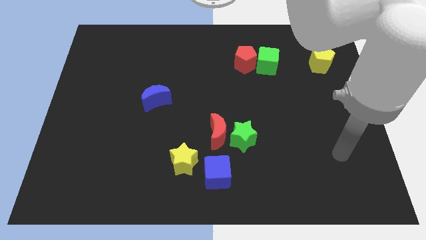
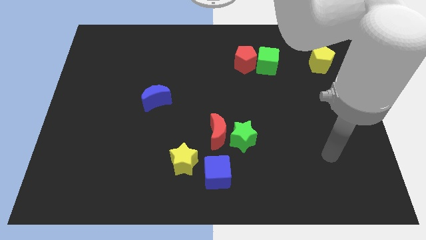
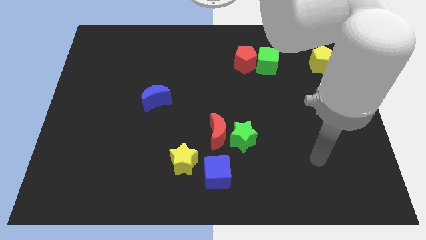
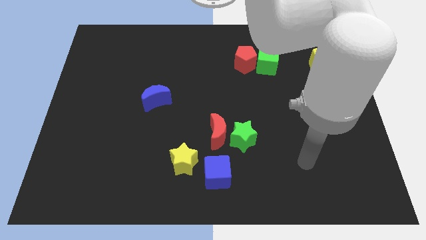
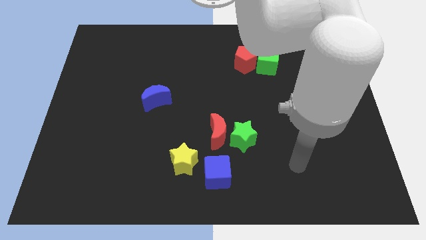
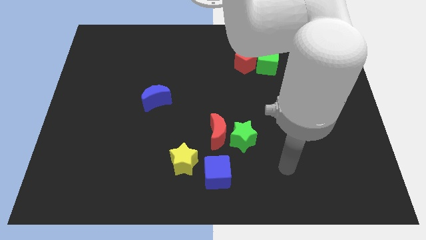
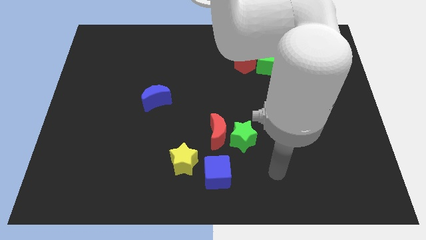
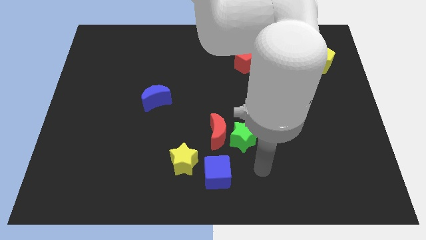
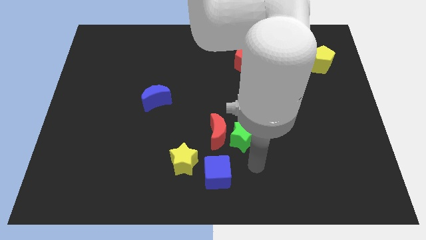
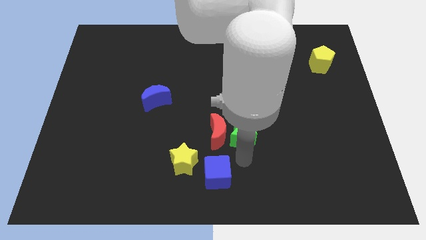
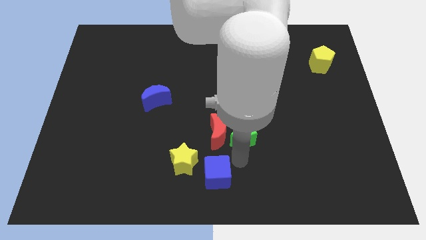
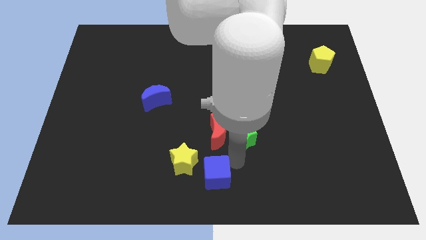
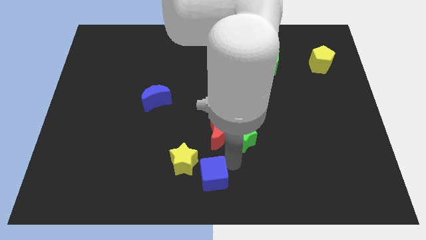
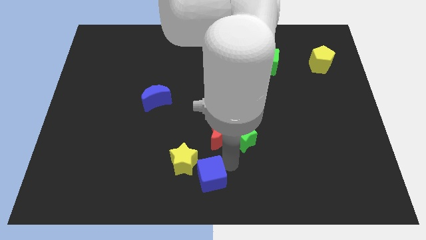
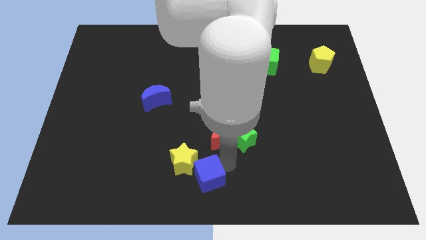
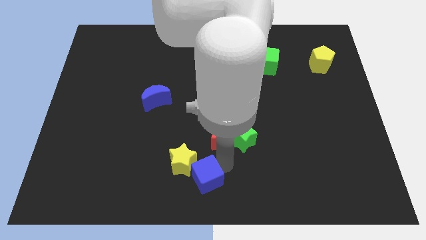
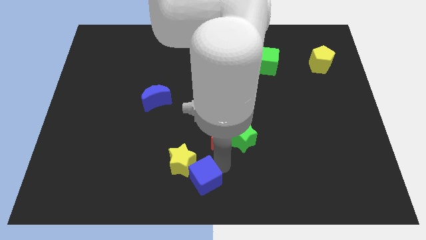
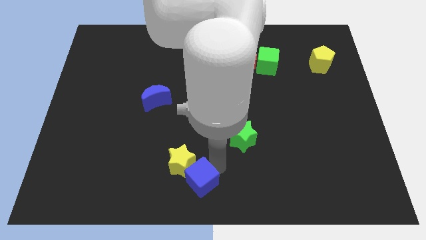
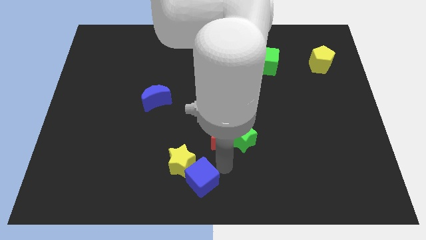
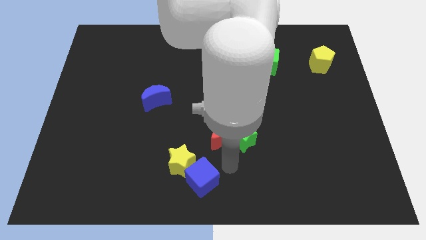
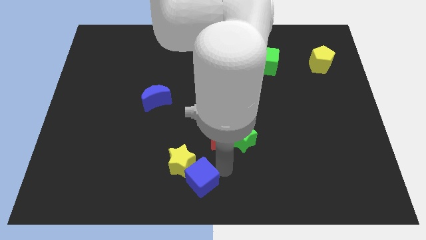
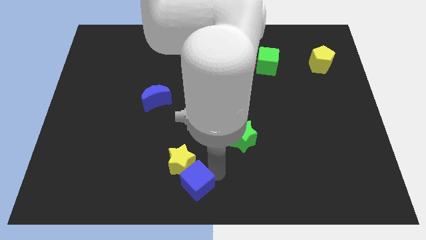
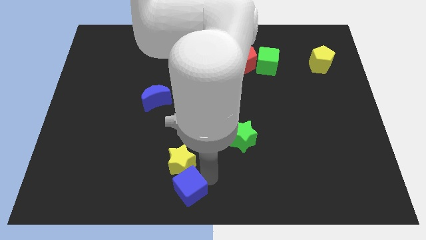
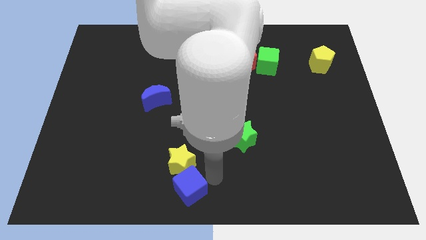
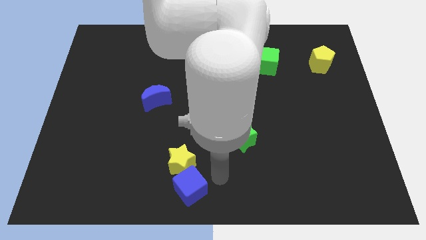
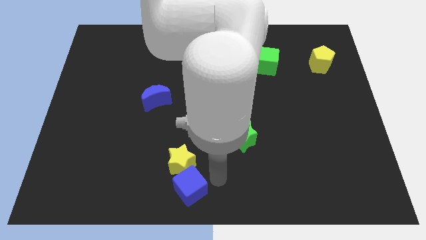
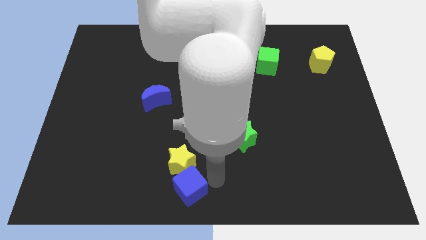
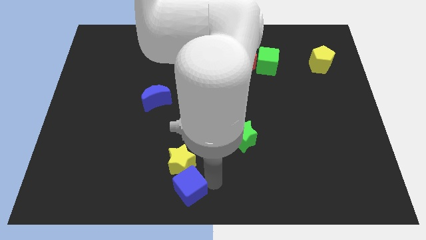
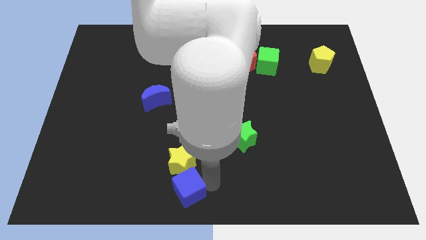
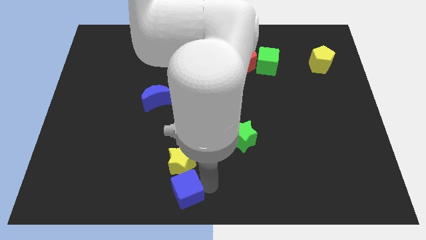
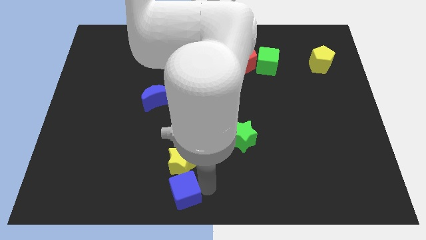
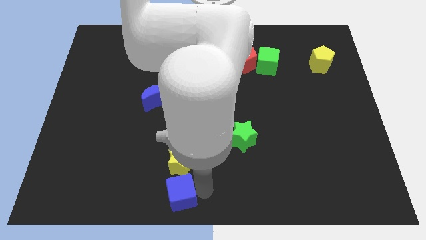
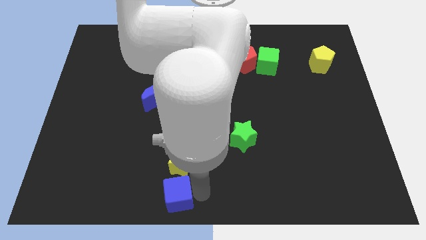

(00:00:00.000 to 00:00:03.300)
slightly move the blue cube left

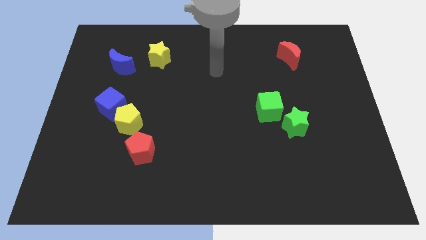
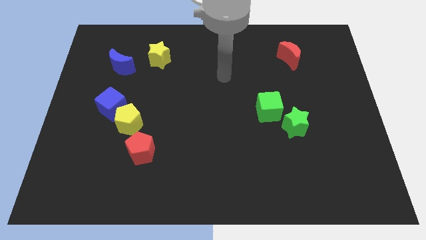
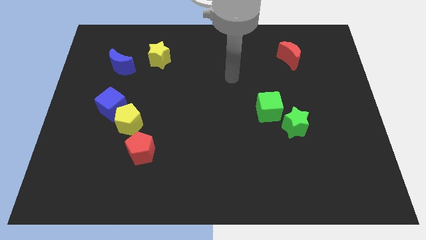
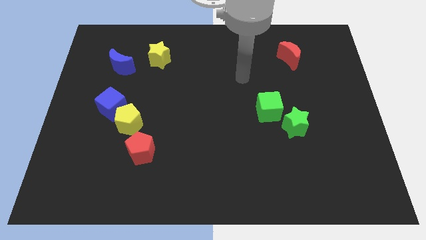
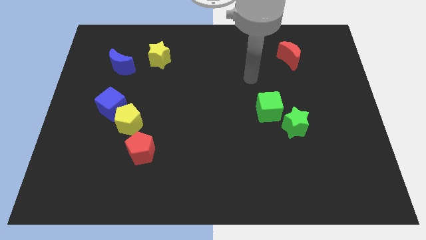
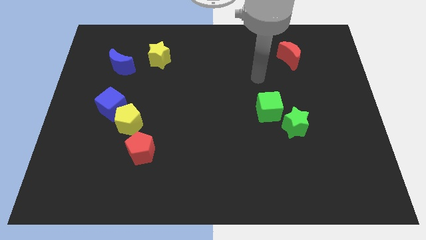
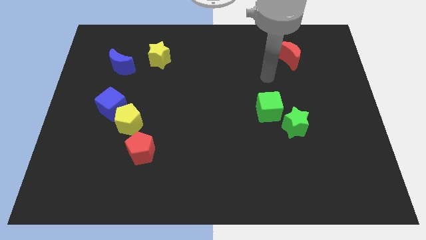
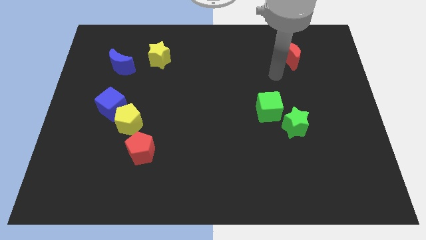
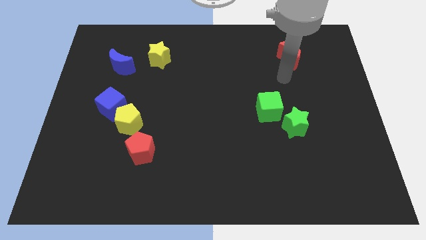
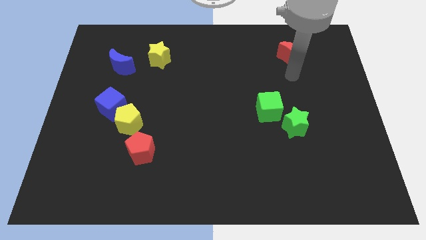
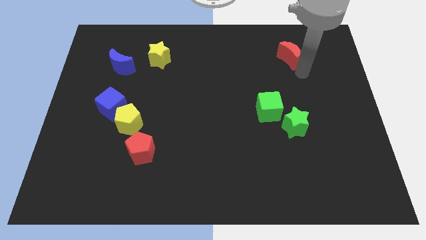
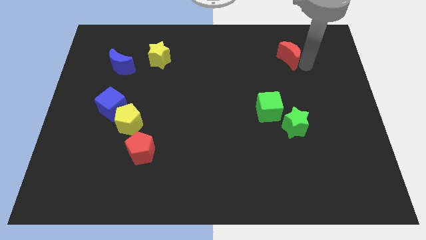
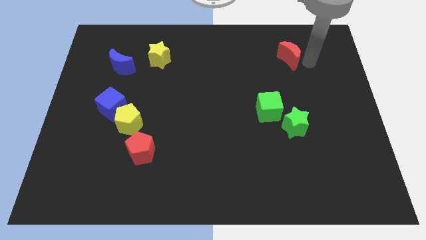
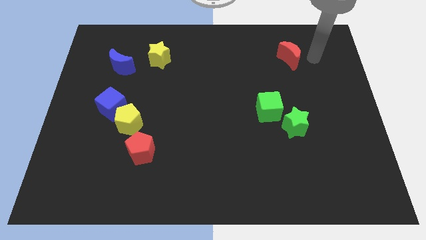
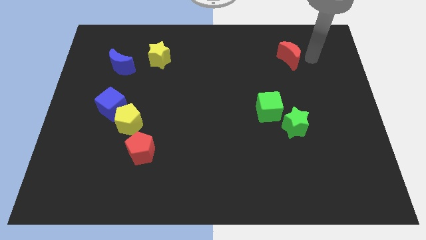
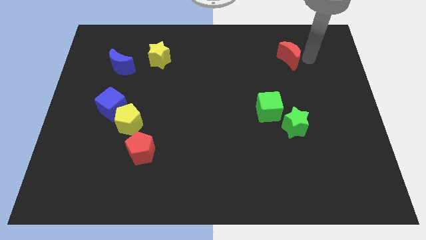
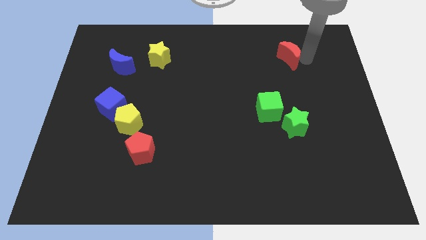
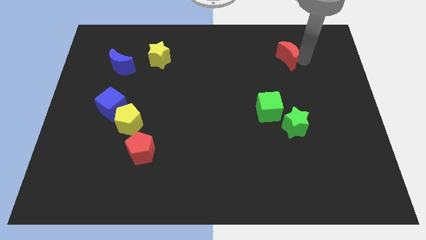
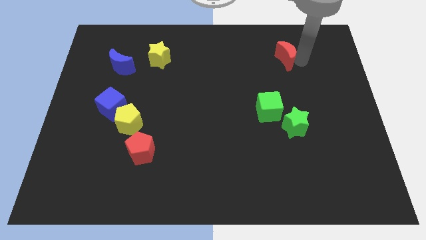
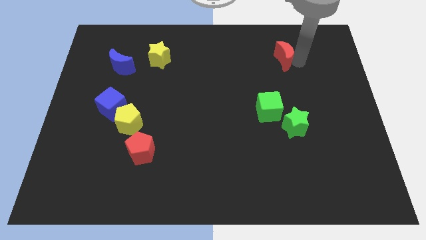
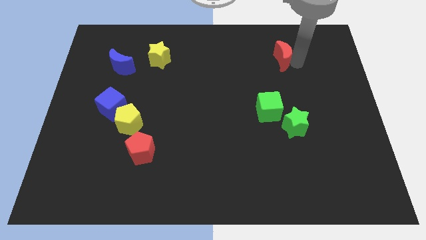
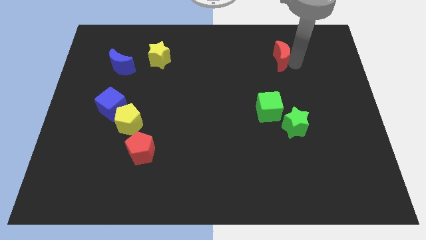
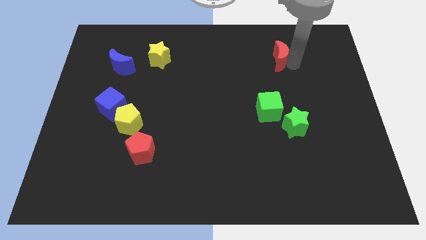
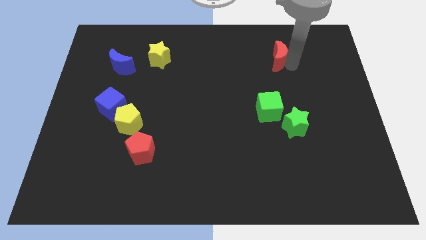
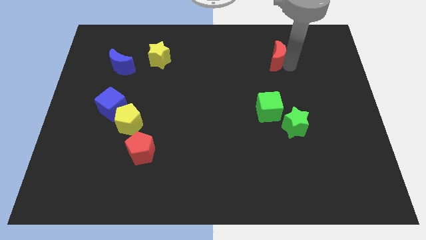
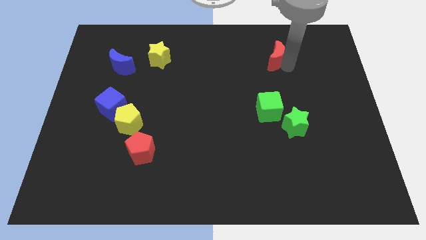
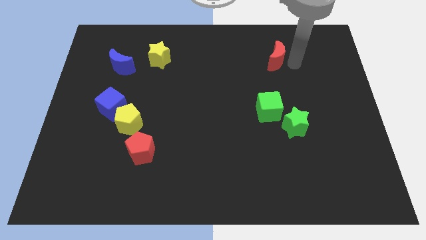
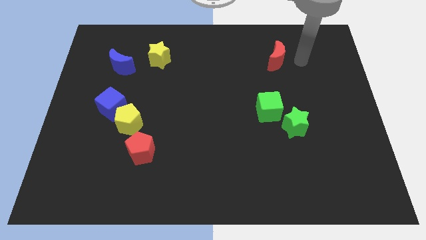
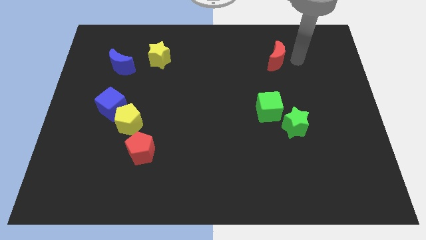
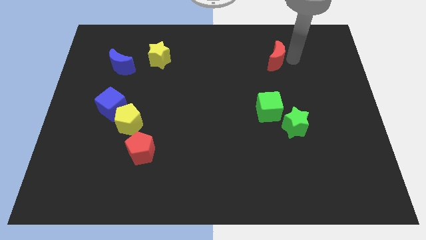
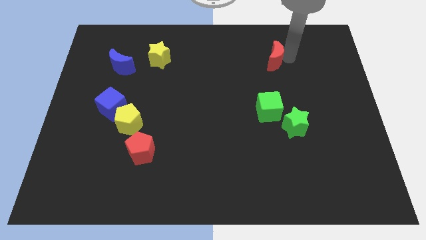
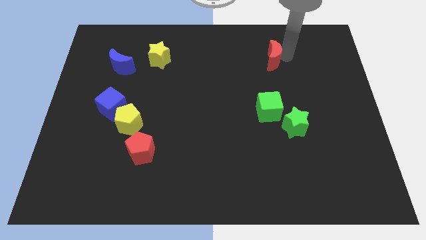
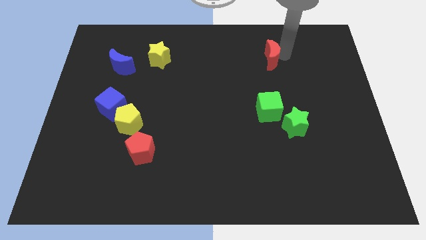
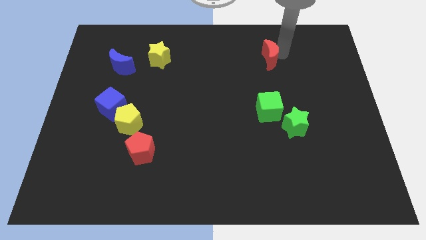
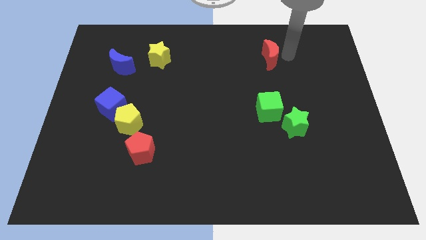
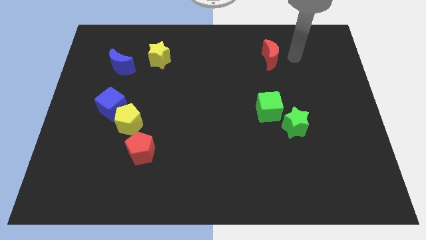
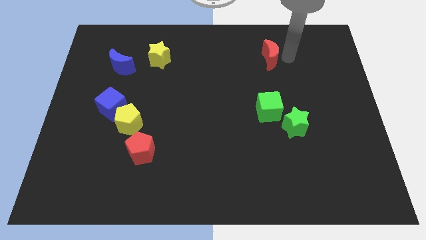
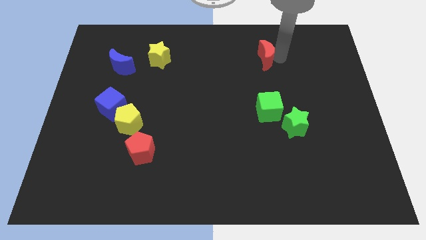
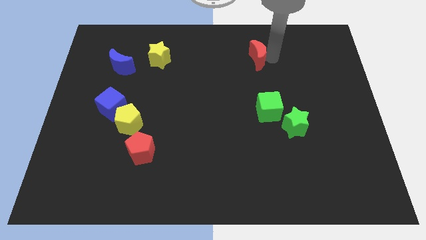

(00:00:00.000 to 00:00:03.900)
slightly move the red moon left

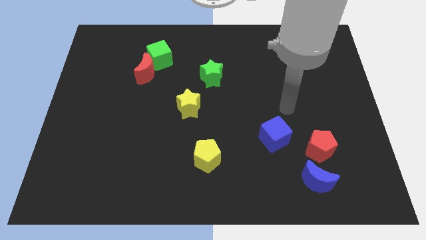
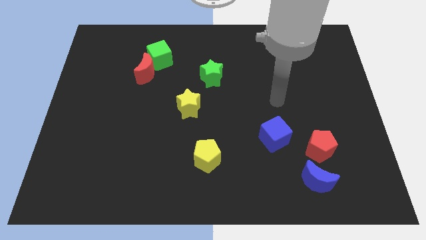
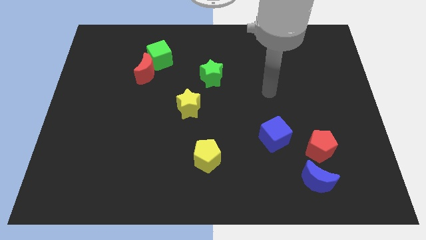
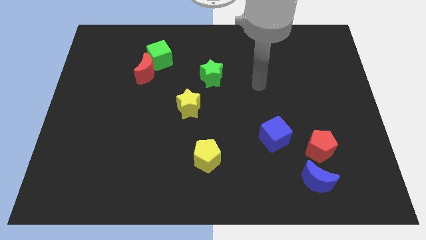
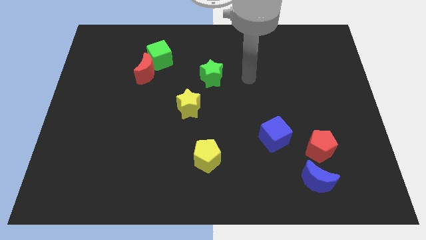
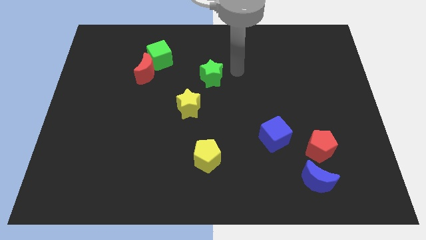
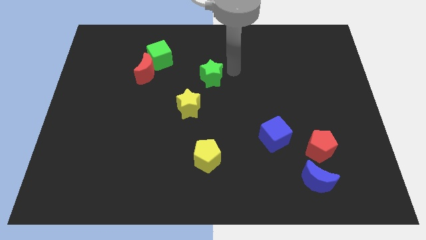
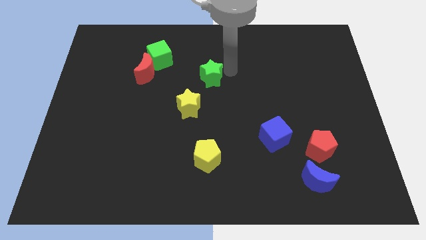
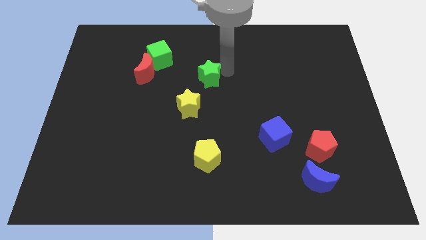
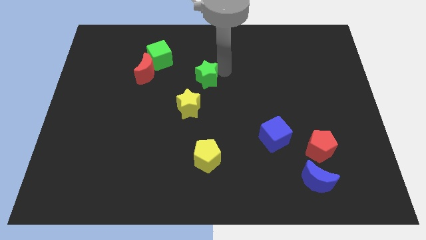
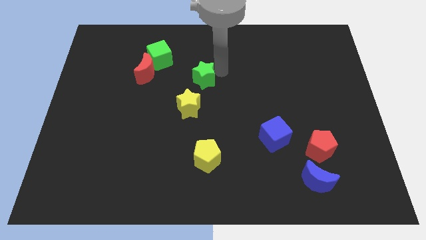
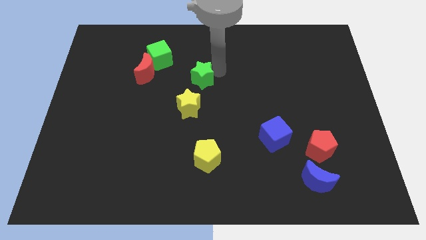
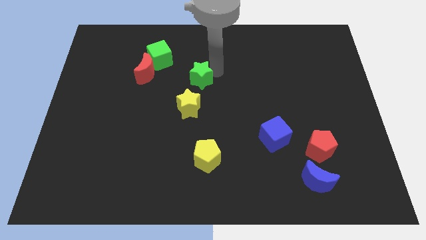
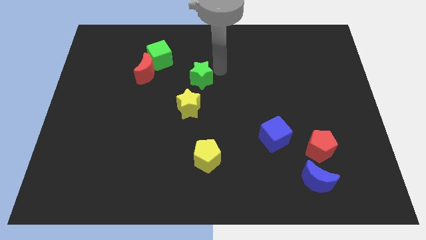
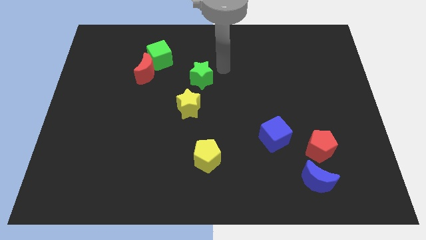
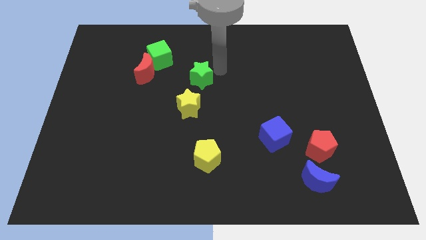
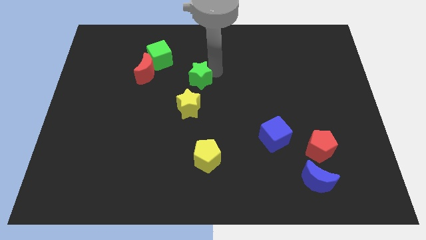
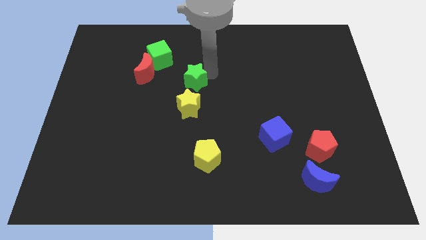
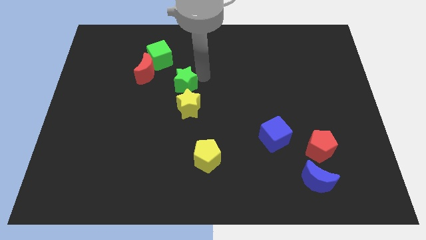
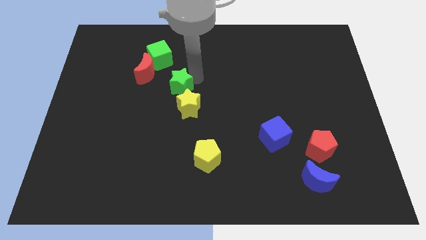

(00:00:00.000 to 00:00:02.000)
push the green star down and to the left a little bit
